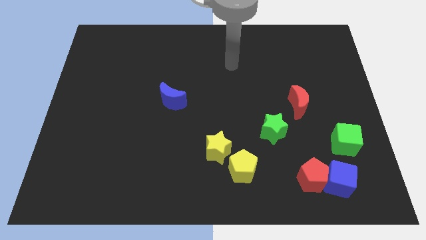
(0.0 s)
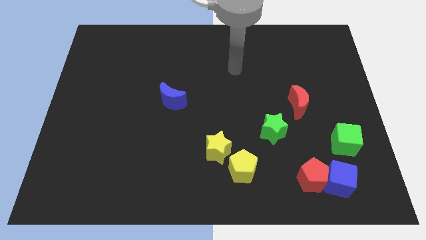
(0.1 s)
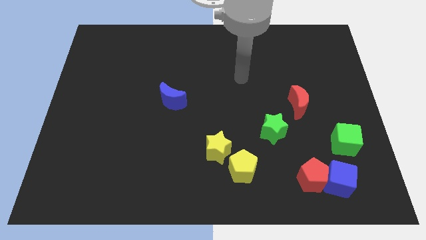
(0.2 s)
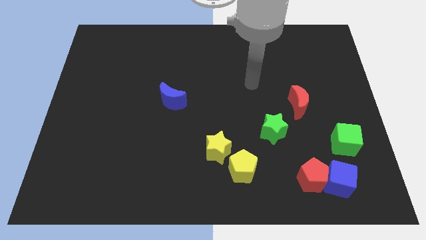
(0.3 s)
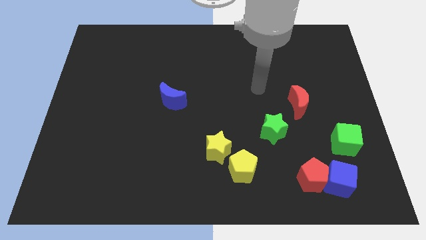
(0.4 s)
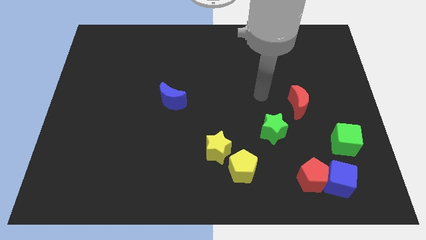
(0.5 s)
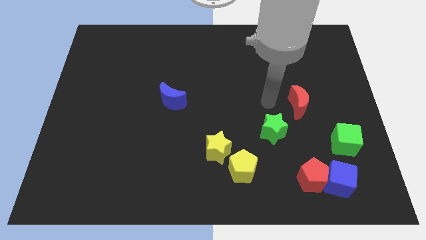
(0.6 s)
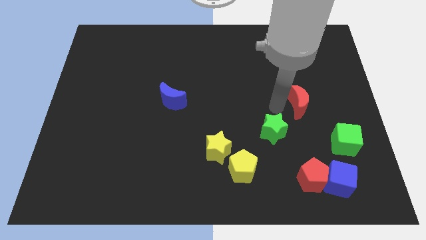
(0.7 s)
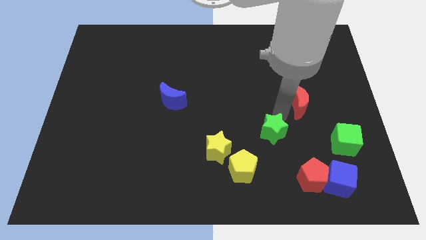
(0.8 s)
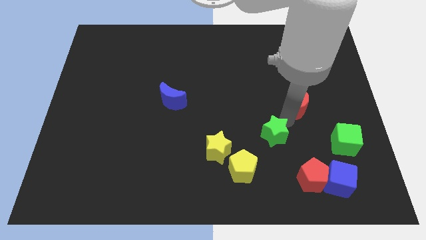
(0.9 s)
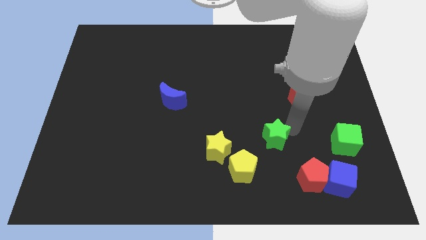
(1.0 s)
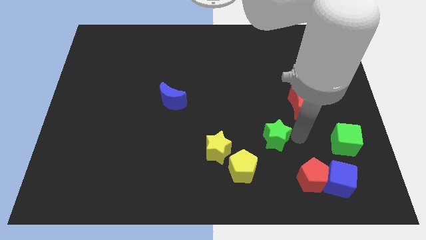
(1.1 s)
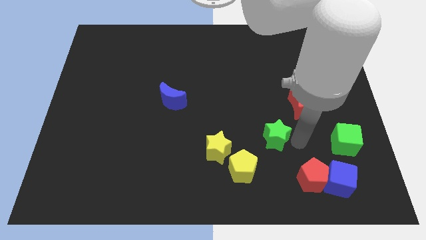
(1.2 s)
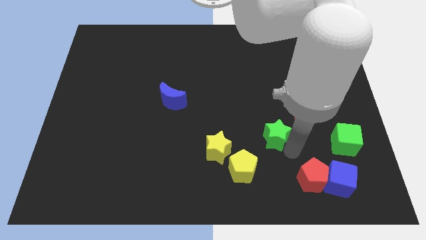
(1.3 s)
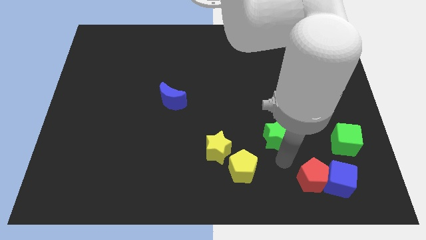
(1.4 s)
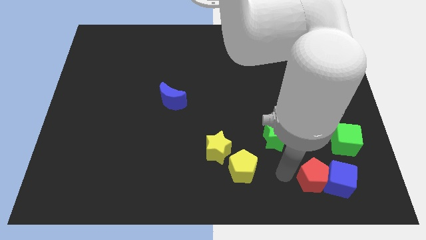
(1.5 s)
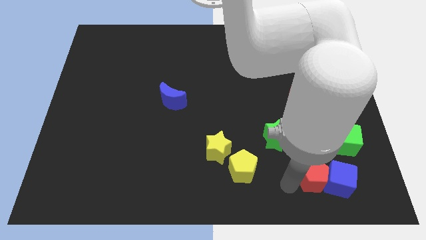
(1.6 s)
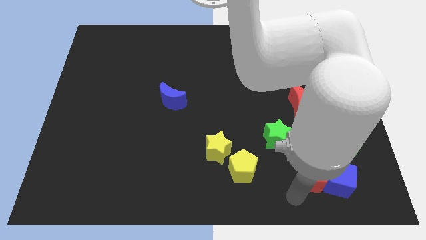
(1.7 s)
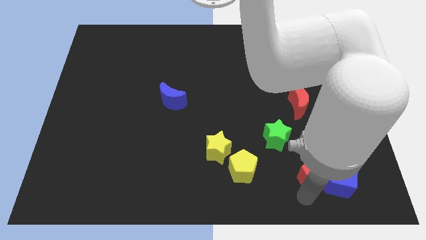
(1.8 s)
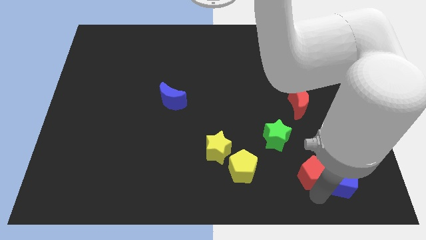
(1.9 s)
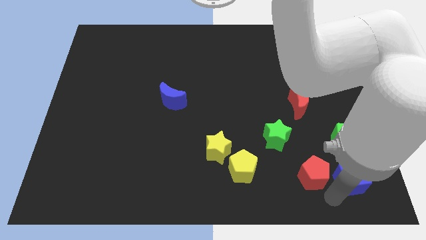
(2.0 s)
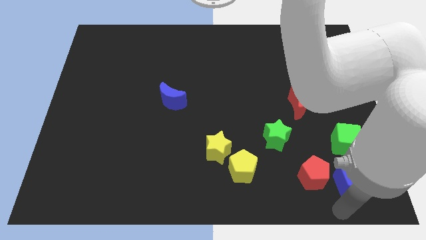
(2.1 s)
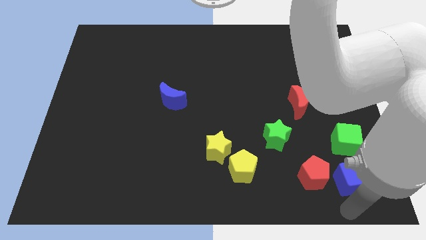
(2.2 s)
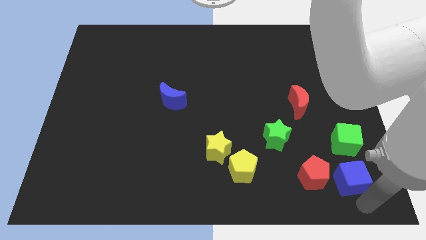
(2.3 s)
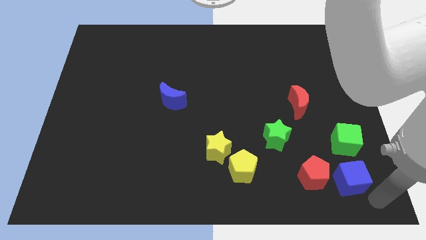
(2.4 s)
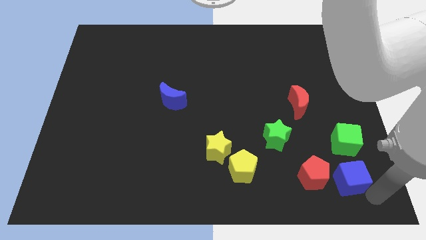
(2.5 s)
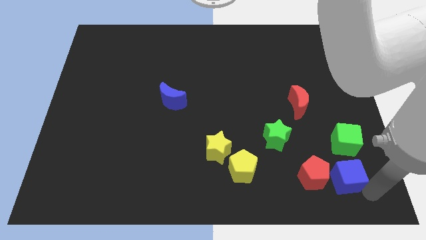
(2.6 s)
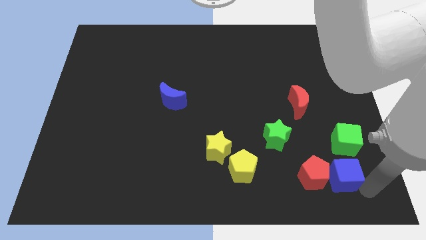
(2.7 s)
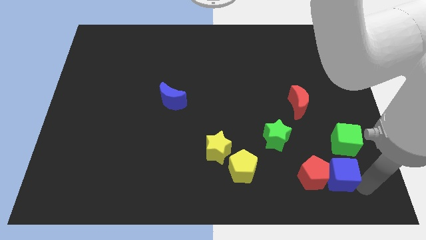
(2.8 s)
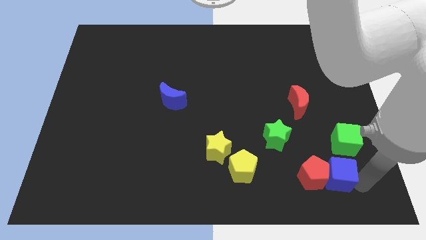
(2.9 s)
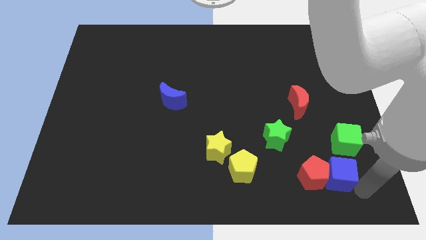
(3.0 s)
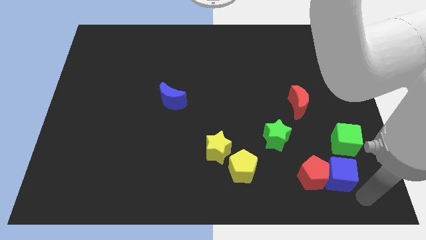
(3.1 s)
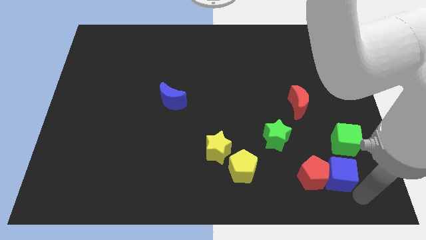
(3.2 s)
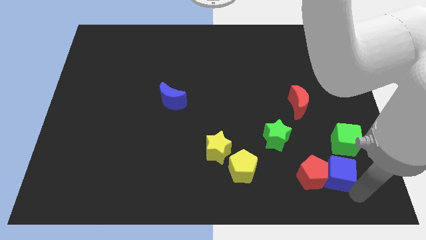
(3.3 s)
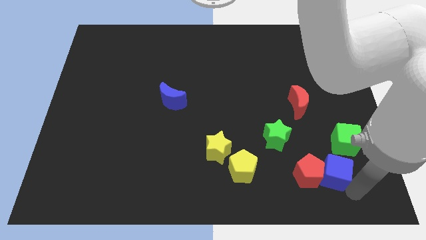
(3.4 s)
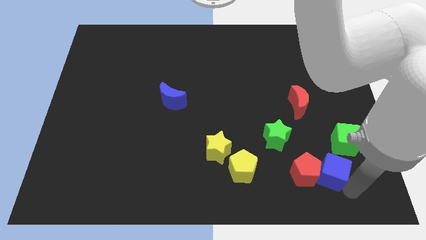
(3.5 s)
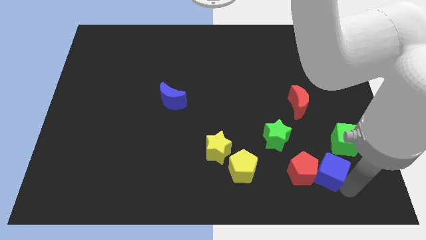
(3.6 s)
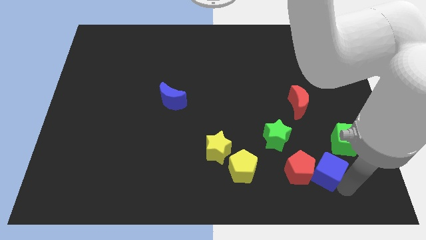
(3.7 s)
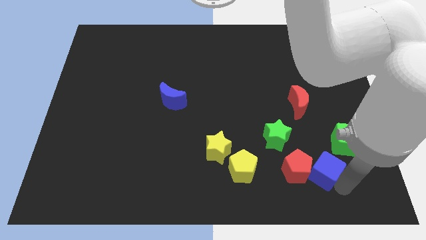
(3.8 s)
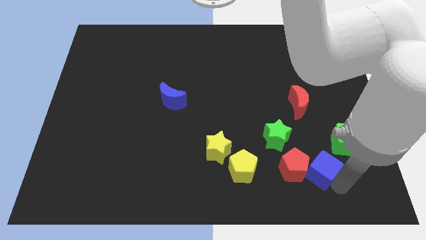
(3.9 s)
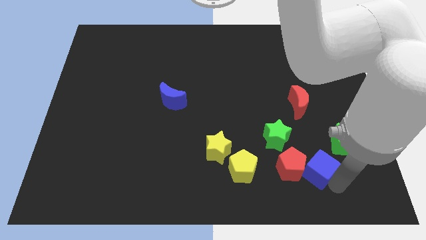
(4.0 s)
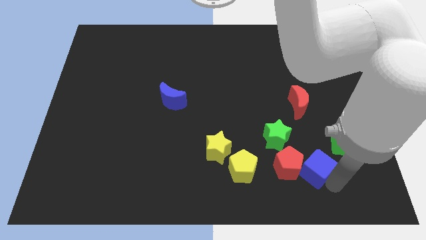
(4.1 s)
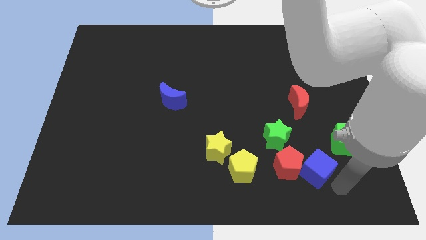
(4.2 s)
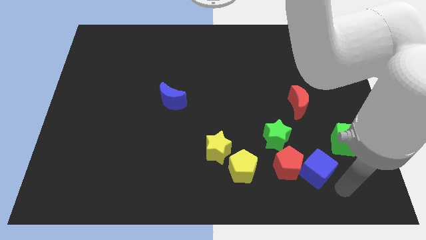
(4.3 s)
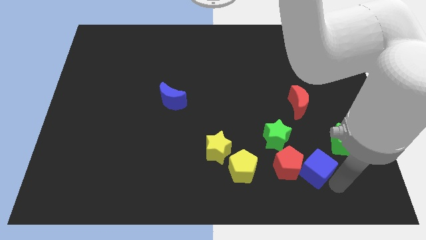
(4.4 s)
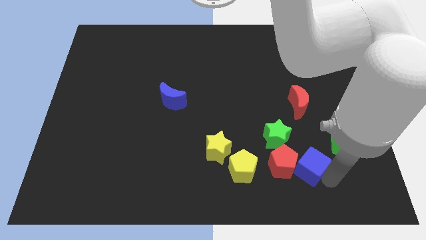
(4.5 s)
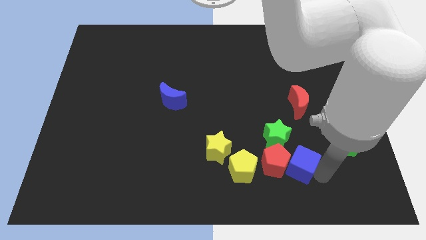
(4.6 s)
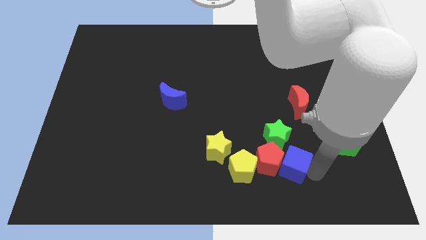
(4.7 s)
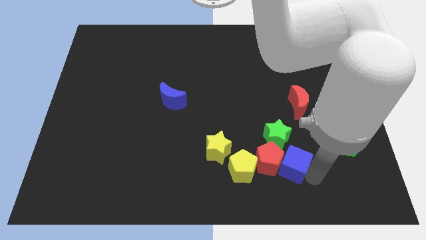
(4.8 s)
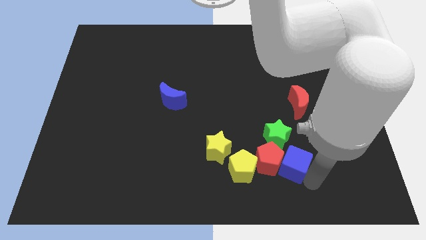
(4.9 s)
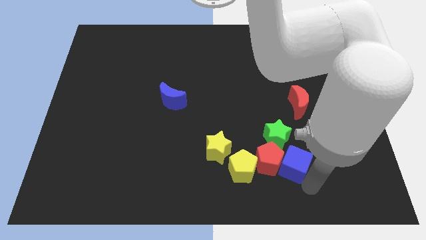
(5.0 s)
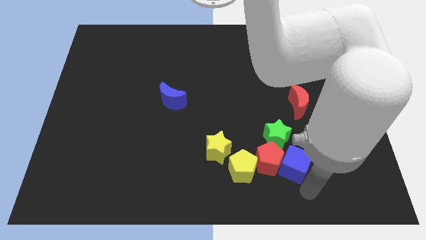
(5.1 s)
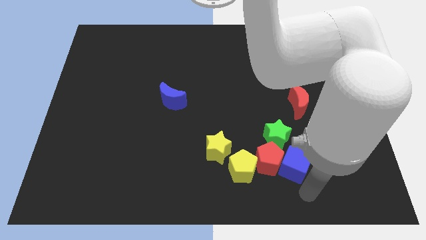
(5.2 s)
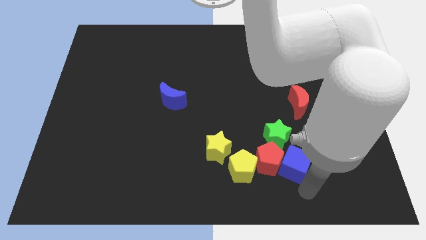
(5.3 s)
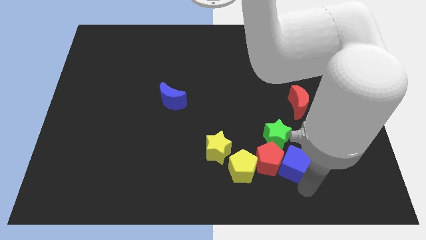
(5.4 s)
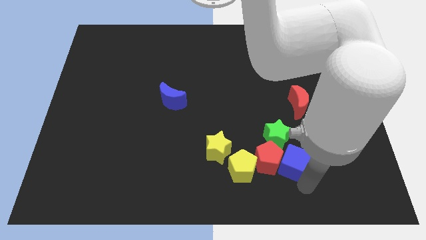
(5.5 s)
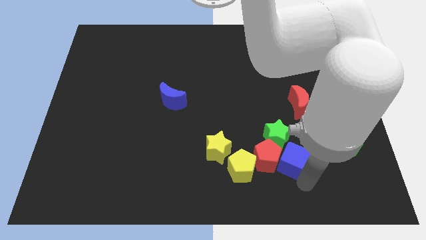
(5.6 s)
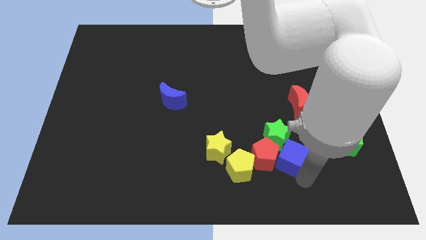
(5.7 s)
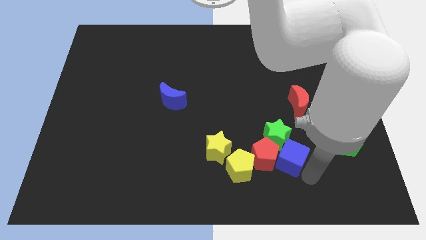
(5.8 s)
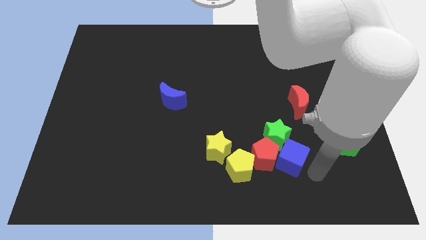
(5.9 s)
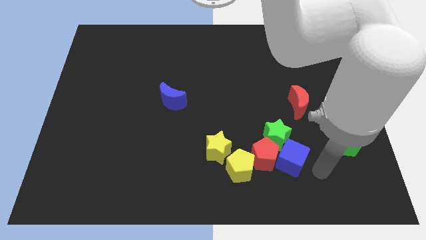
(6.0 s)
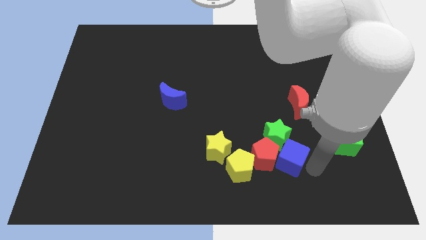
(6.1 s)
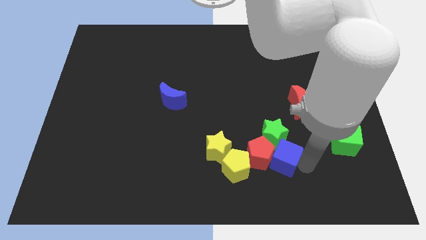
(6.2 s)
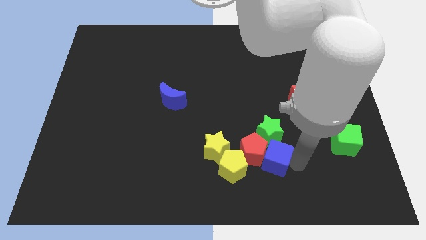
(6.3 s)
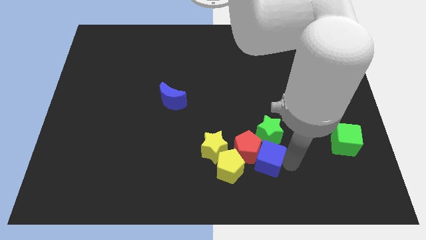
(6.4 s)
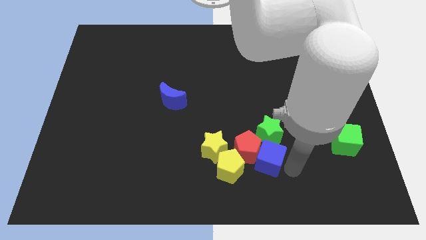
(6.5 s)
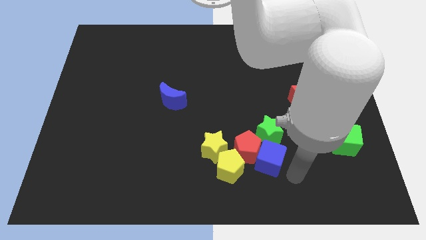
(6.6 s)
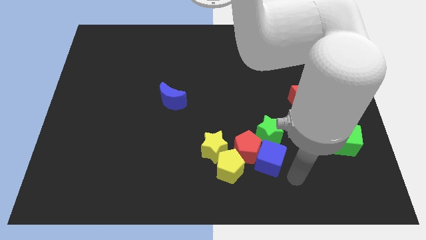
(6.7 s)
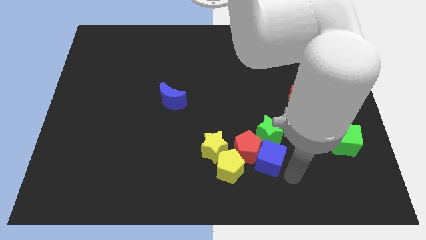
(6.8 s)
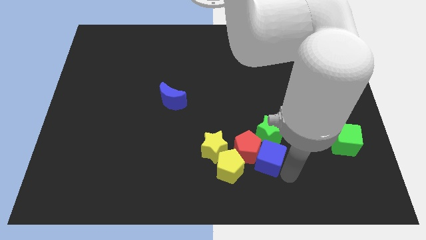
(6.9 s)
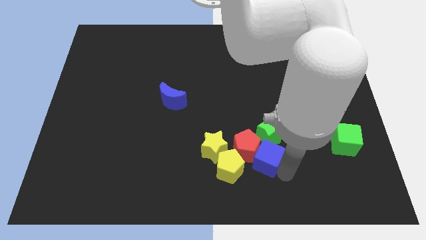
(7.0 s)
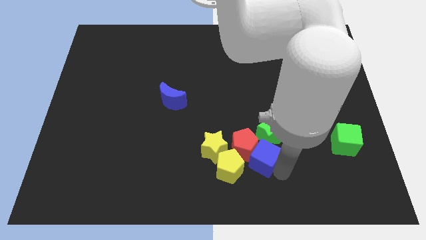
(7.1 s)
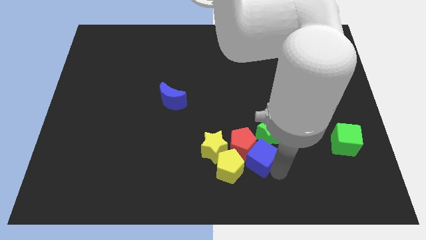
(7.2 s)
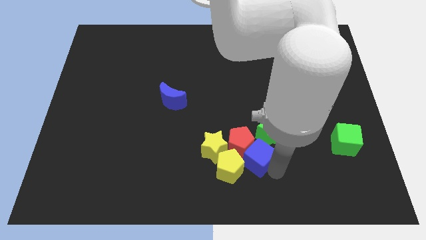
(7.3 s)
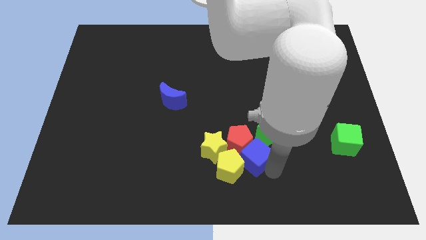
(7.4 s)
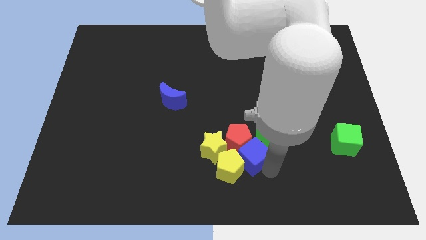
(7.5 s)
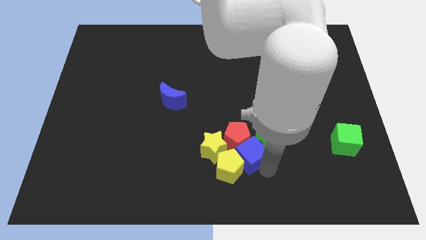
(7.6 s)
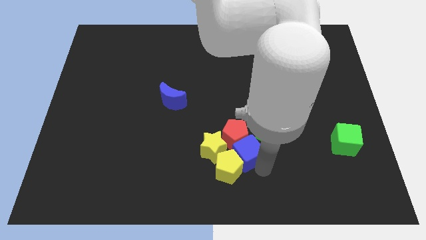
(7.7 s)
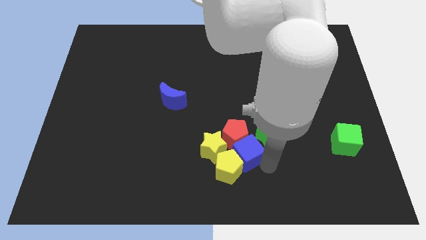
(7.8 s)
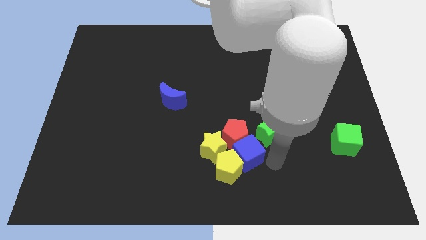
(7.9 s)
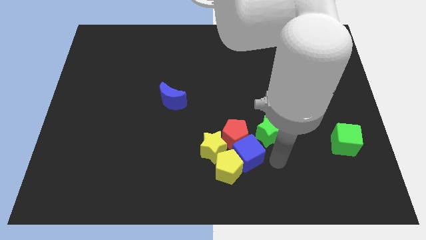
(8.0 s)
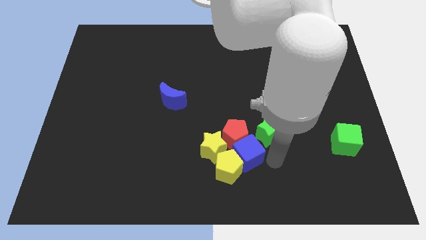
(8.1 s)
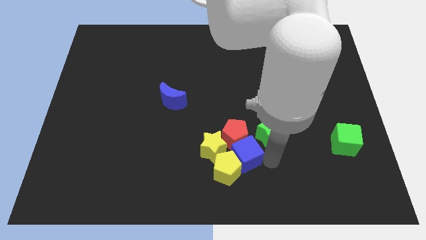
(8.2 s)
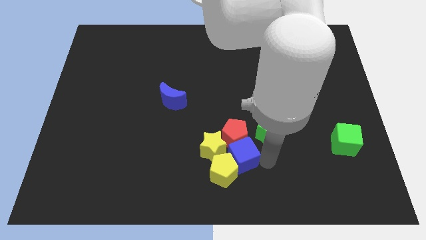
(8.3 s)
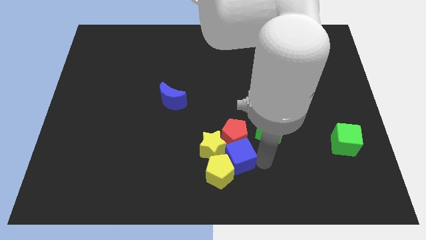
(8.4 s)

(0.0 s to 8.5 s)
move the blue cube to the yellow star
